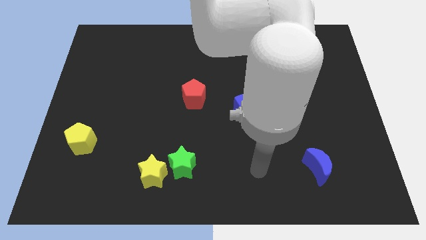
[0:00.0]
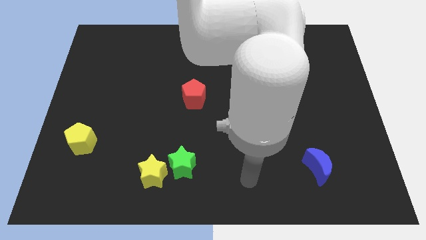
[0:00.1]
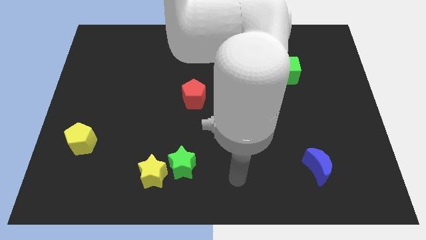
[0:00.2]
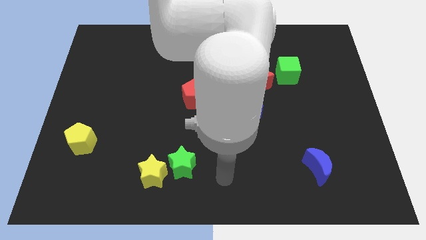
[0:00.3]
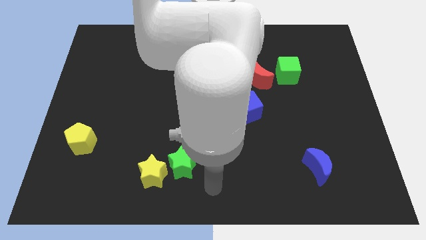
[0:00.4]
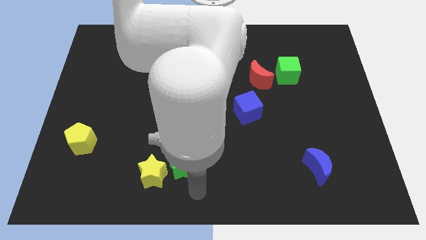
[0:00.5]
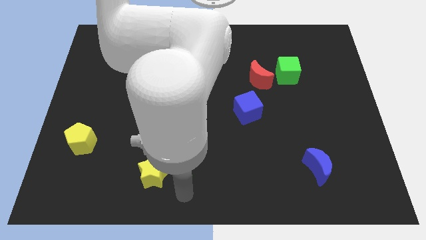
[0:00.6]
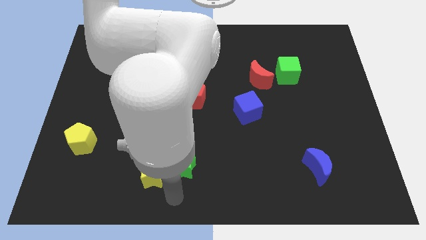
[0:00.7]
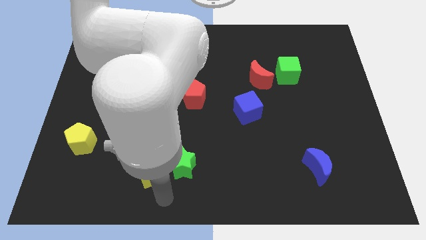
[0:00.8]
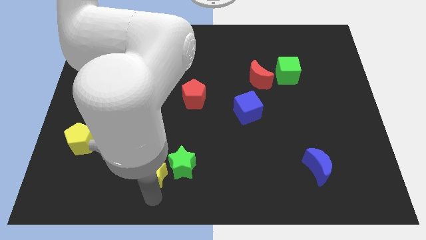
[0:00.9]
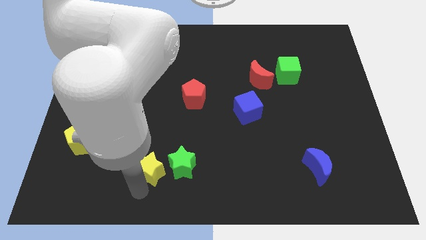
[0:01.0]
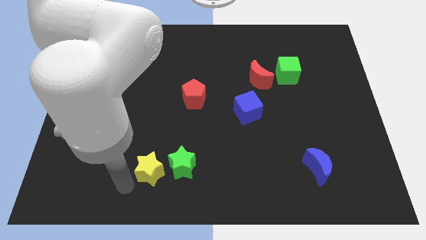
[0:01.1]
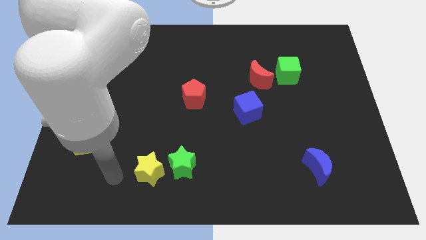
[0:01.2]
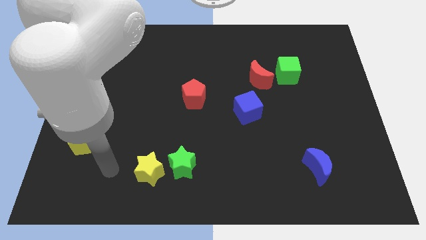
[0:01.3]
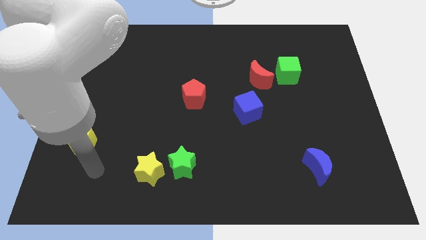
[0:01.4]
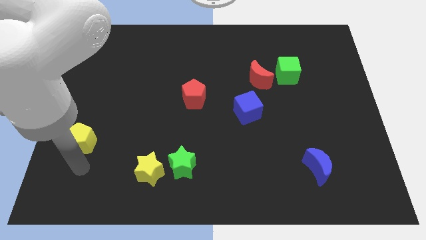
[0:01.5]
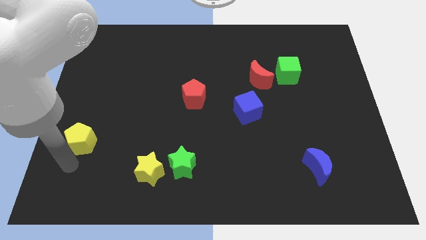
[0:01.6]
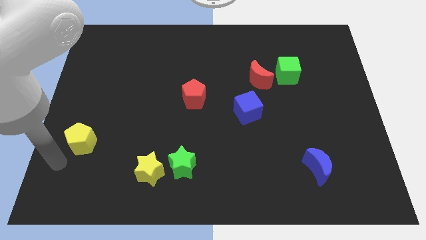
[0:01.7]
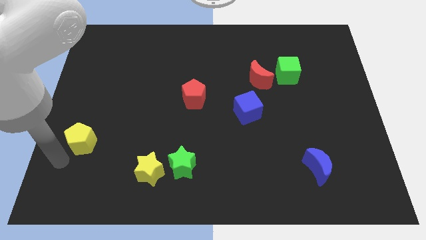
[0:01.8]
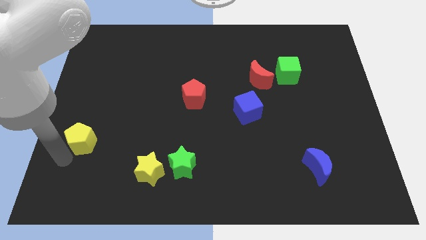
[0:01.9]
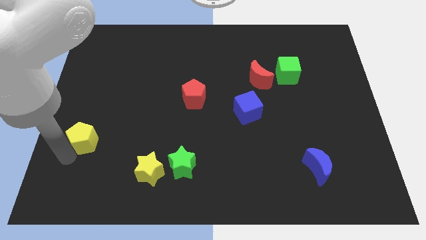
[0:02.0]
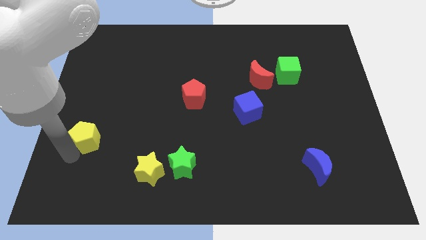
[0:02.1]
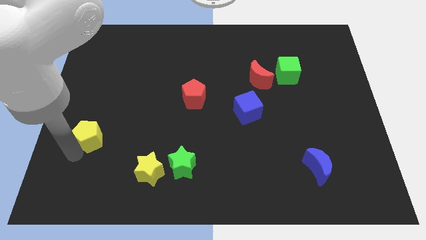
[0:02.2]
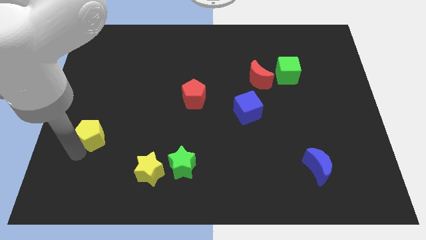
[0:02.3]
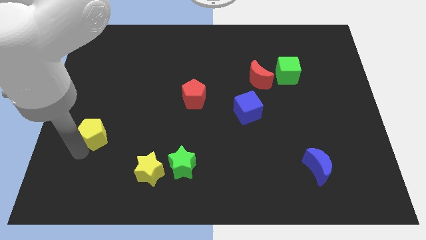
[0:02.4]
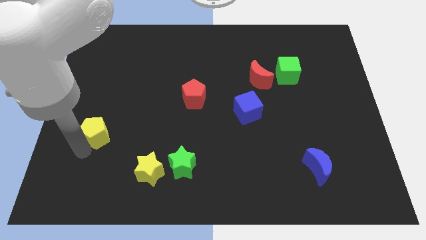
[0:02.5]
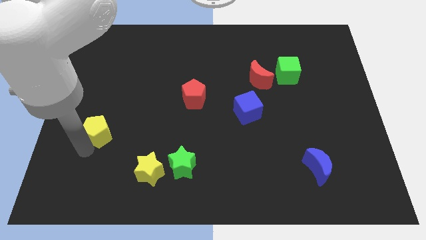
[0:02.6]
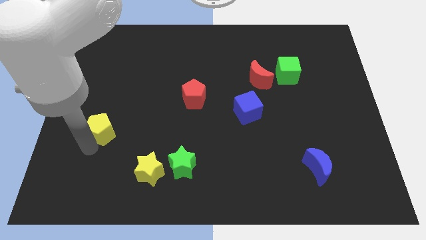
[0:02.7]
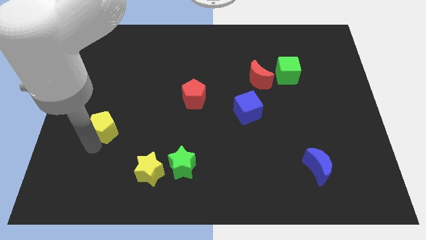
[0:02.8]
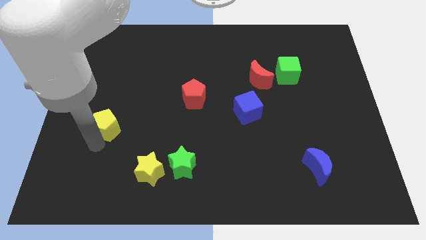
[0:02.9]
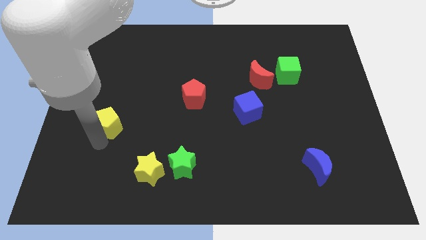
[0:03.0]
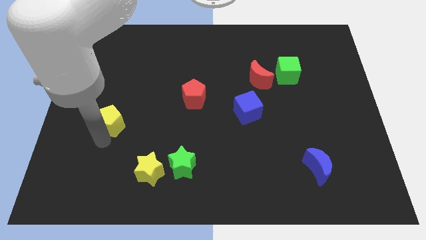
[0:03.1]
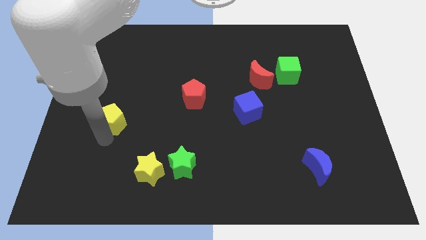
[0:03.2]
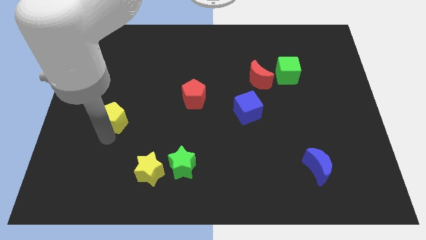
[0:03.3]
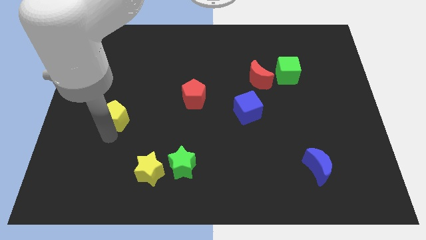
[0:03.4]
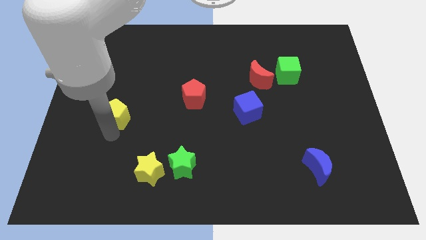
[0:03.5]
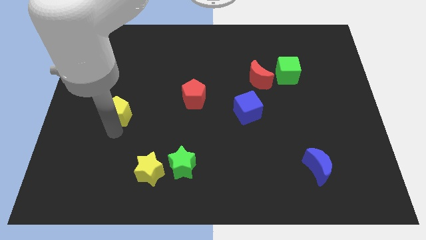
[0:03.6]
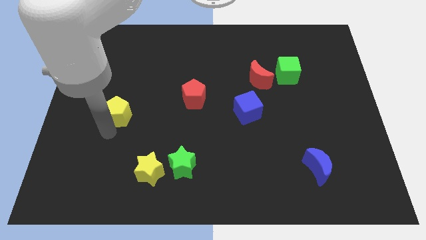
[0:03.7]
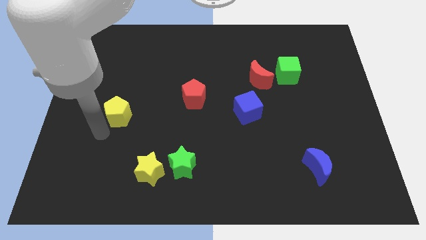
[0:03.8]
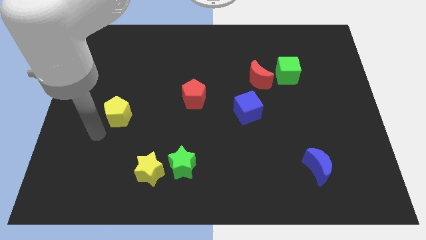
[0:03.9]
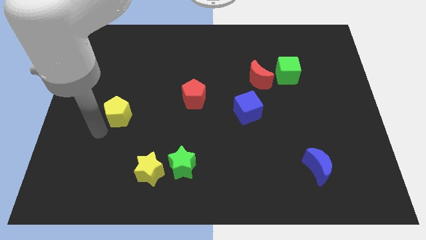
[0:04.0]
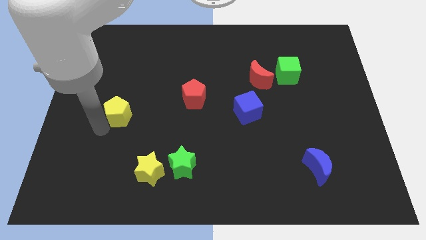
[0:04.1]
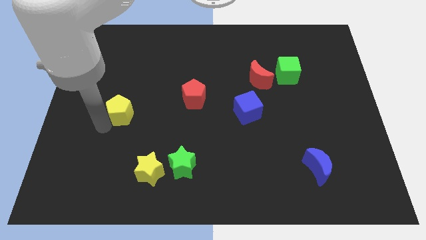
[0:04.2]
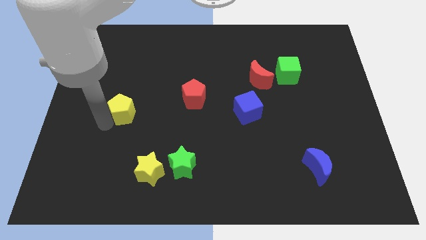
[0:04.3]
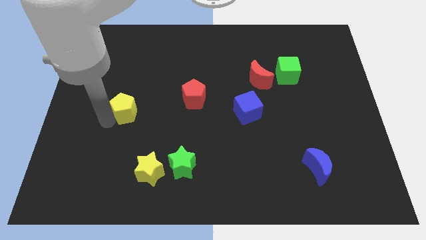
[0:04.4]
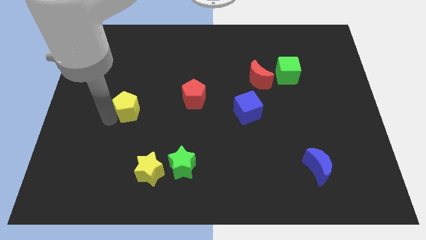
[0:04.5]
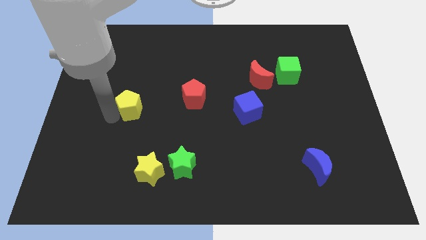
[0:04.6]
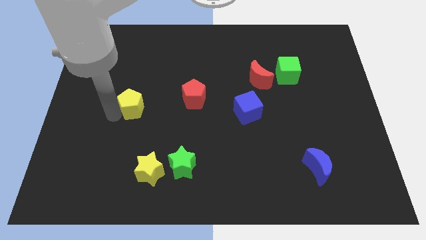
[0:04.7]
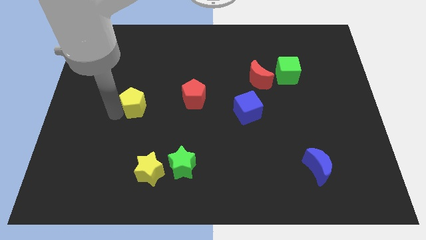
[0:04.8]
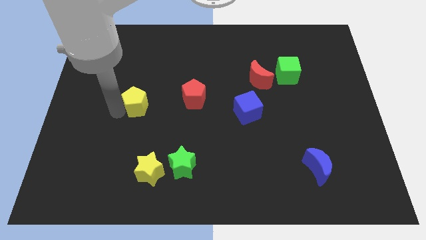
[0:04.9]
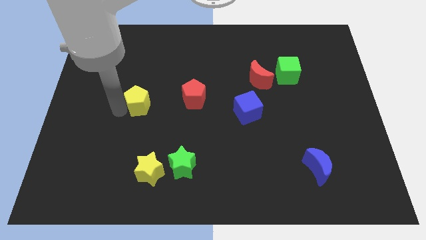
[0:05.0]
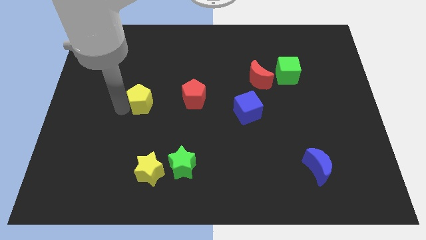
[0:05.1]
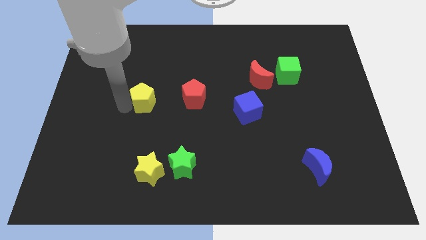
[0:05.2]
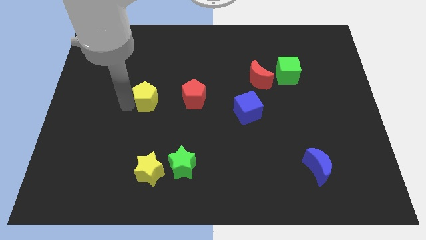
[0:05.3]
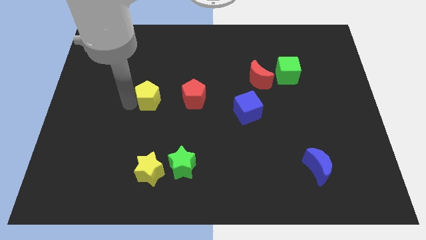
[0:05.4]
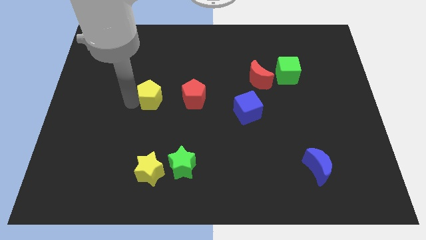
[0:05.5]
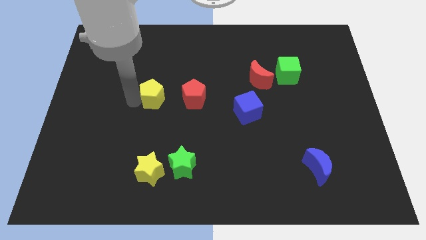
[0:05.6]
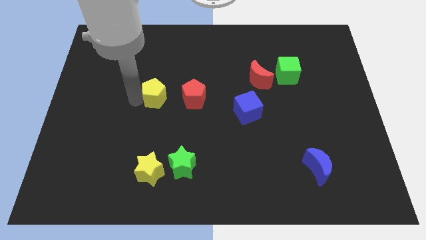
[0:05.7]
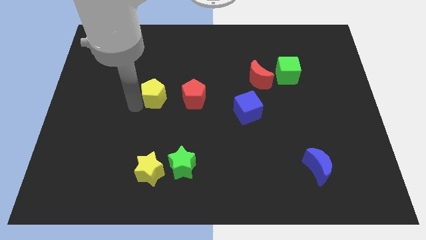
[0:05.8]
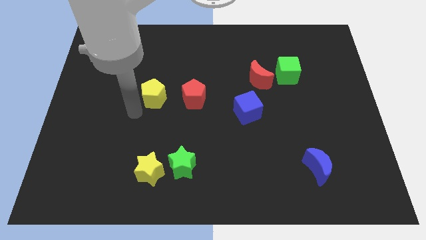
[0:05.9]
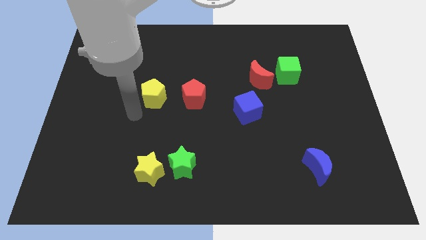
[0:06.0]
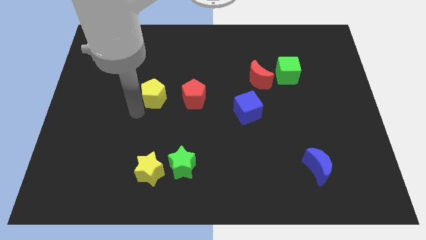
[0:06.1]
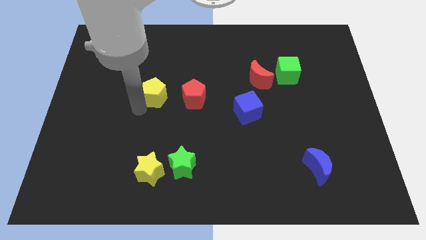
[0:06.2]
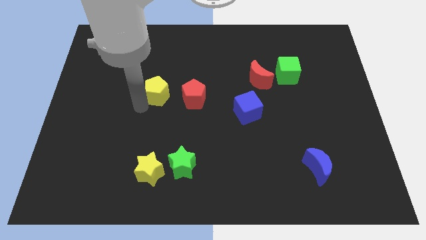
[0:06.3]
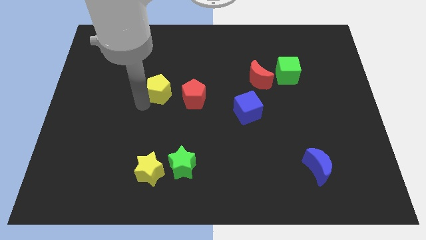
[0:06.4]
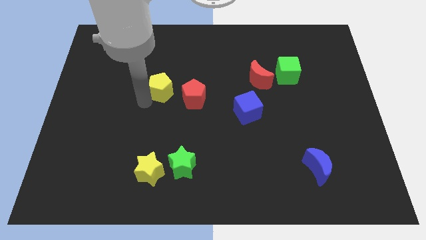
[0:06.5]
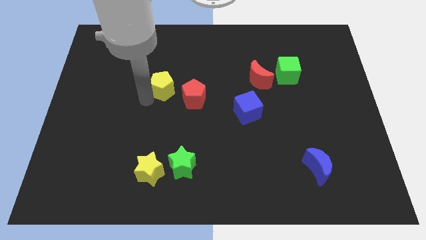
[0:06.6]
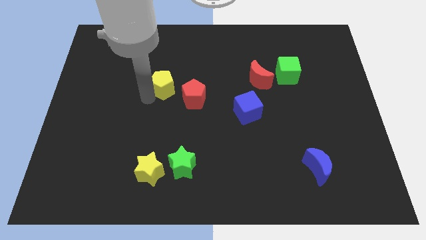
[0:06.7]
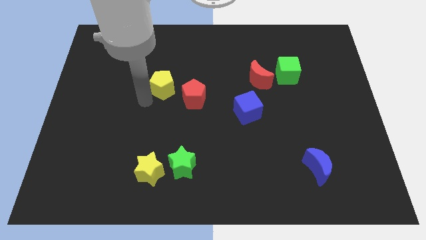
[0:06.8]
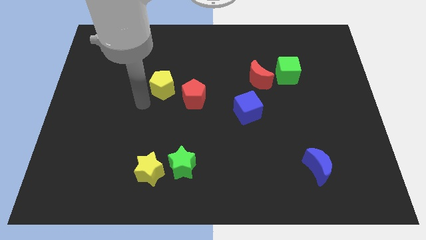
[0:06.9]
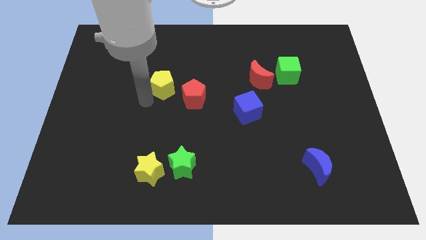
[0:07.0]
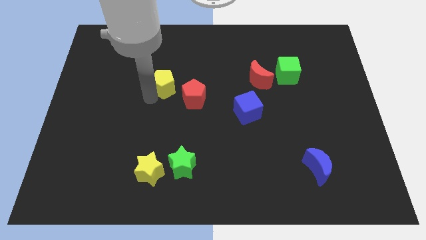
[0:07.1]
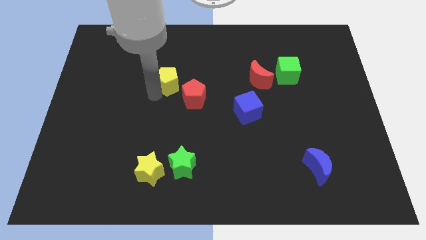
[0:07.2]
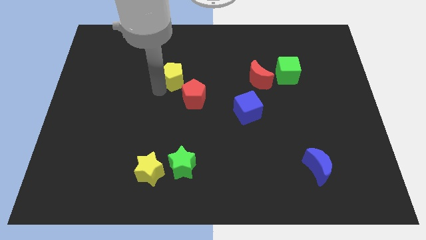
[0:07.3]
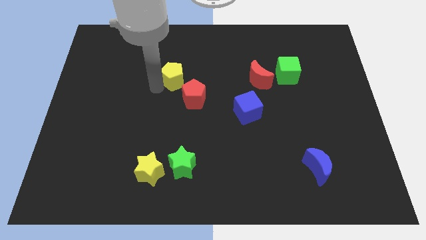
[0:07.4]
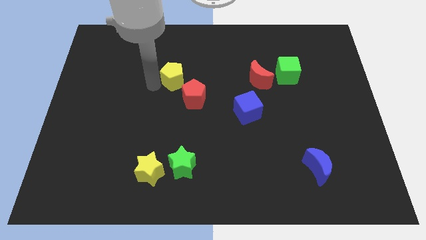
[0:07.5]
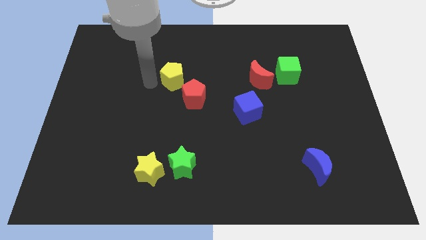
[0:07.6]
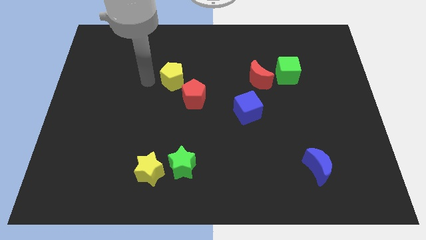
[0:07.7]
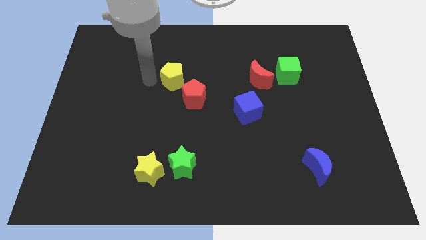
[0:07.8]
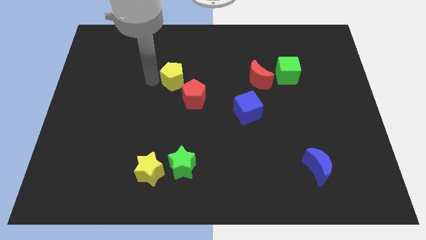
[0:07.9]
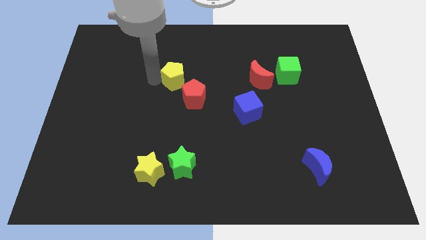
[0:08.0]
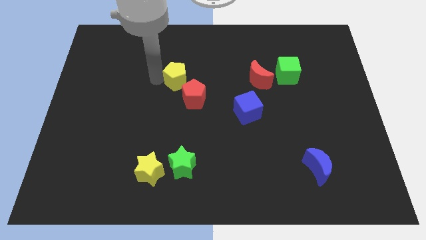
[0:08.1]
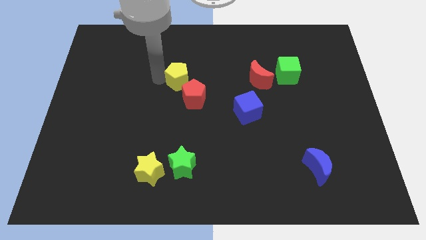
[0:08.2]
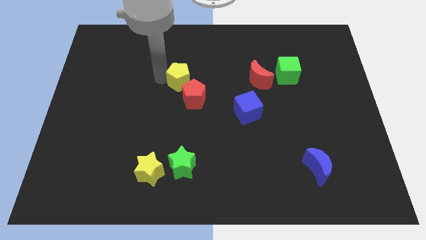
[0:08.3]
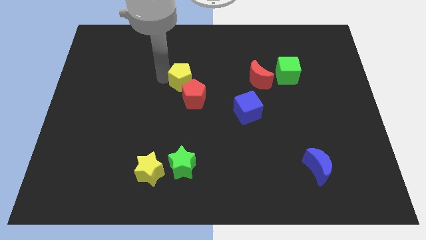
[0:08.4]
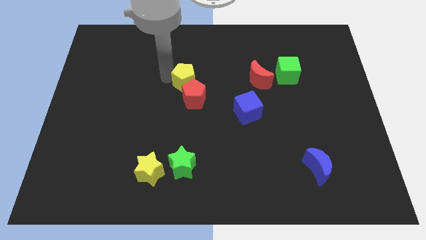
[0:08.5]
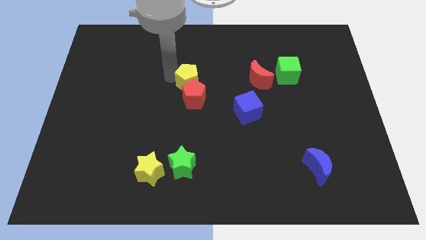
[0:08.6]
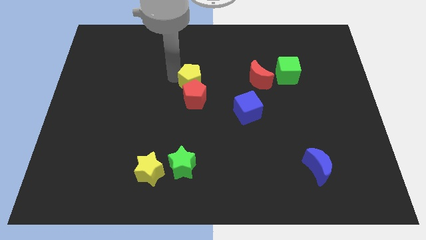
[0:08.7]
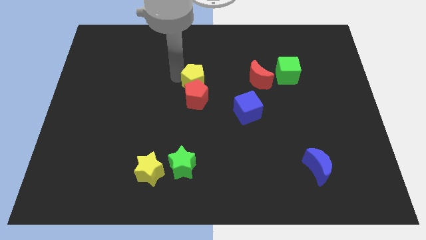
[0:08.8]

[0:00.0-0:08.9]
slide the yellow pentagon left of the red moon
